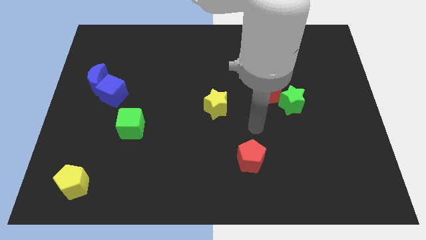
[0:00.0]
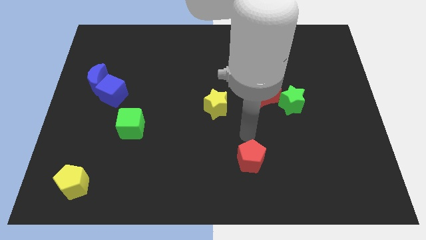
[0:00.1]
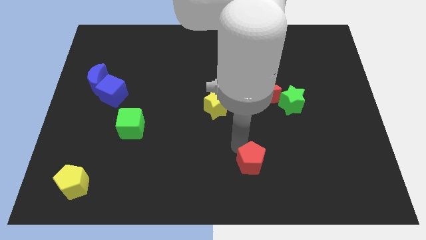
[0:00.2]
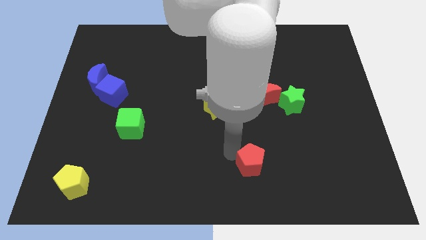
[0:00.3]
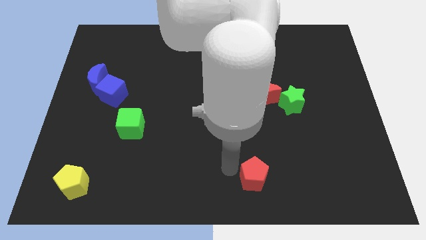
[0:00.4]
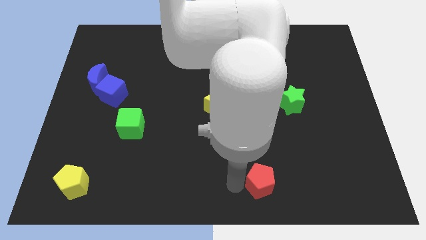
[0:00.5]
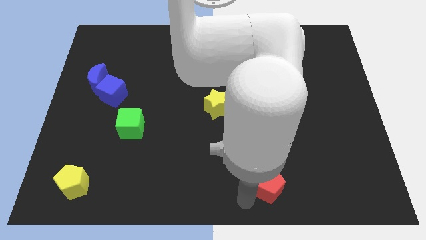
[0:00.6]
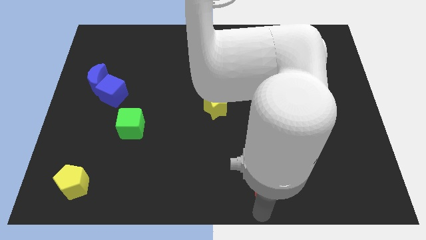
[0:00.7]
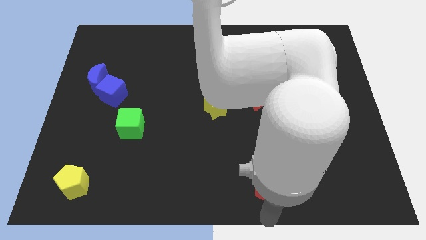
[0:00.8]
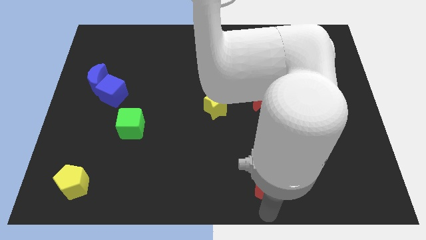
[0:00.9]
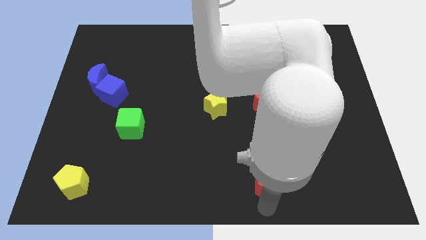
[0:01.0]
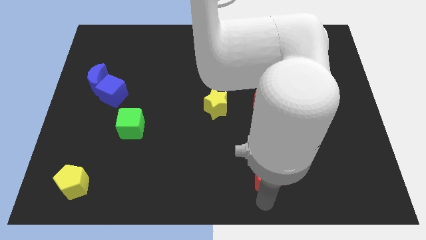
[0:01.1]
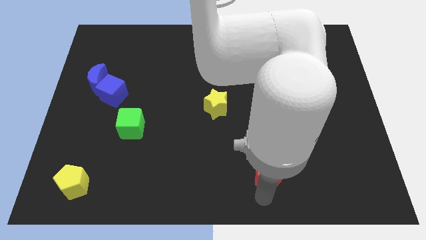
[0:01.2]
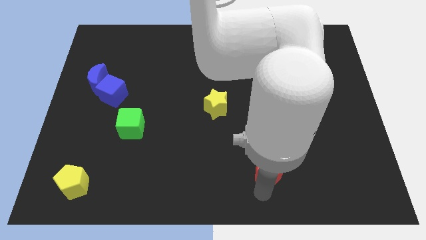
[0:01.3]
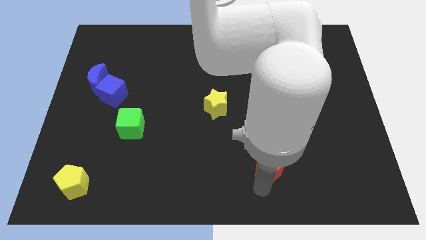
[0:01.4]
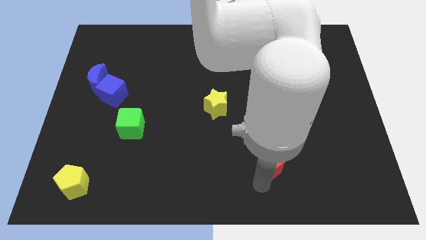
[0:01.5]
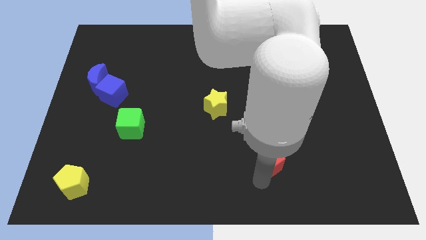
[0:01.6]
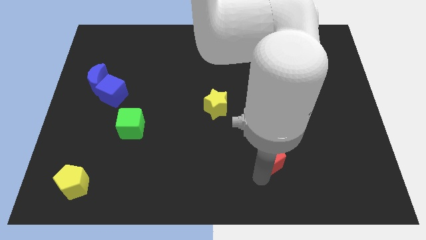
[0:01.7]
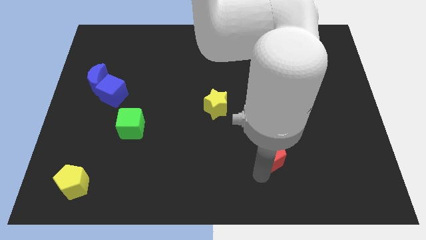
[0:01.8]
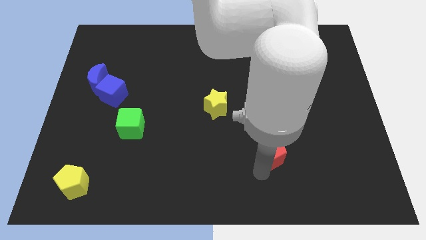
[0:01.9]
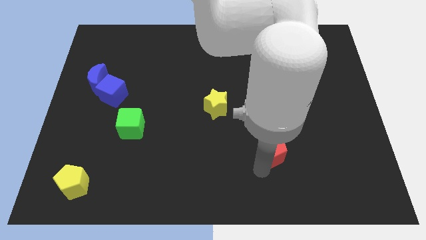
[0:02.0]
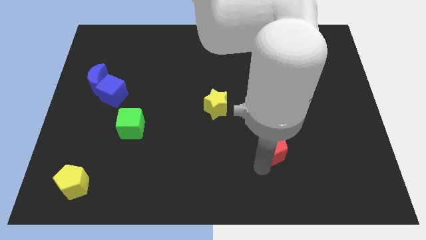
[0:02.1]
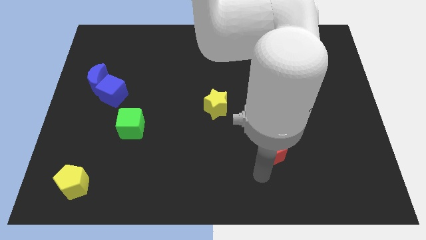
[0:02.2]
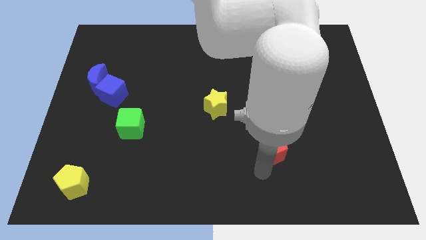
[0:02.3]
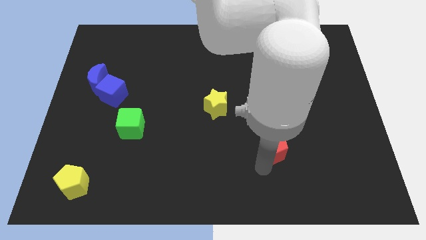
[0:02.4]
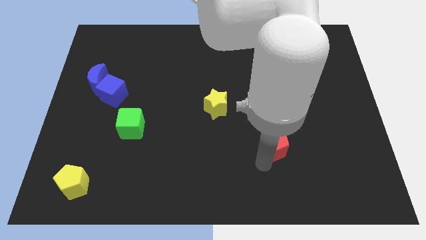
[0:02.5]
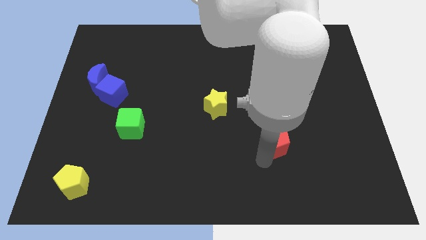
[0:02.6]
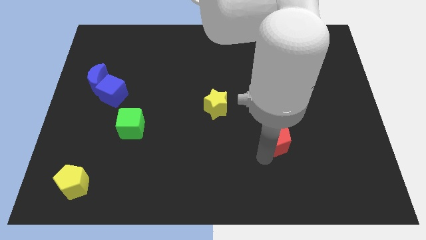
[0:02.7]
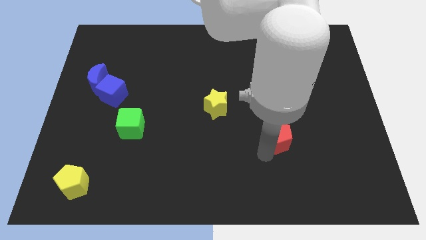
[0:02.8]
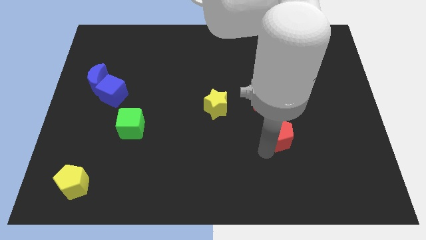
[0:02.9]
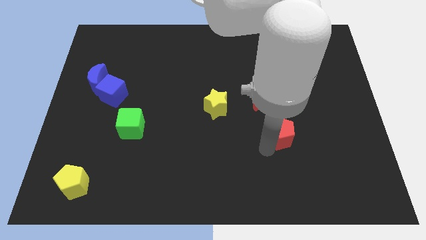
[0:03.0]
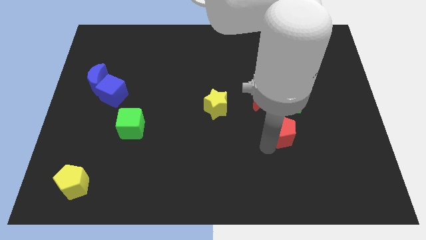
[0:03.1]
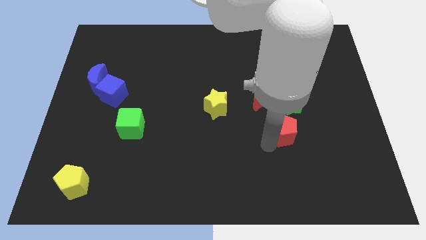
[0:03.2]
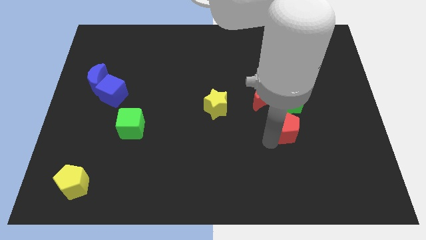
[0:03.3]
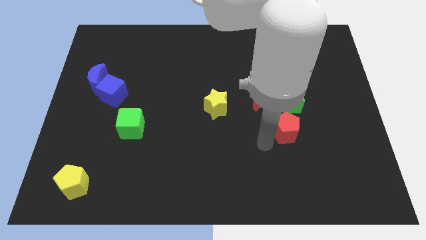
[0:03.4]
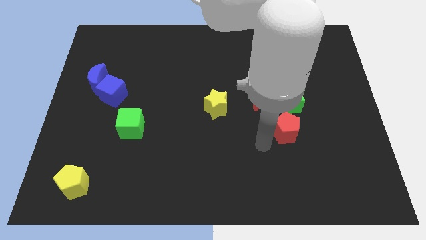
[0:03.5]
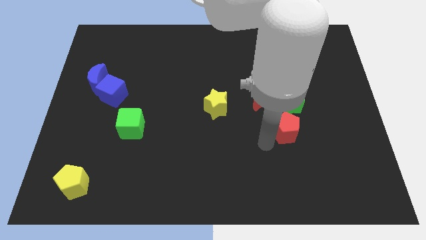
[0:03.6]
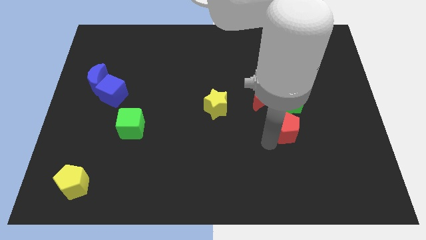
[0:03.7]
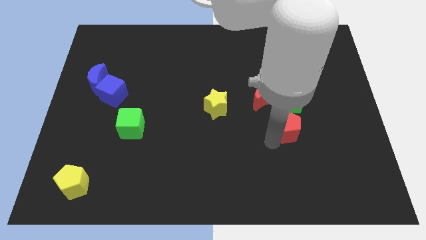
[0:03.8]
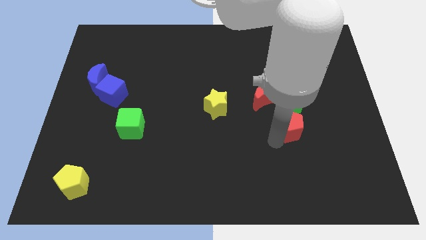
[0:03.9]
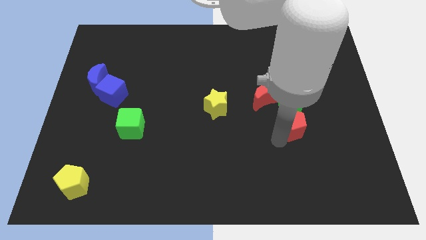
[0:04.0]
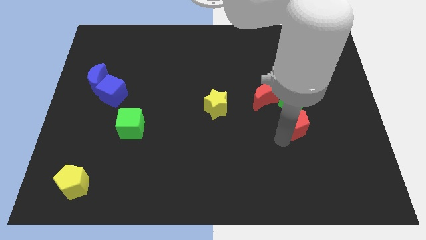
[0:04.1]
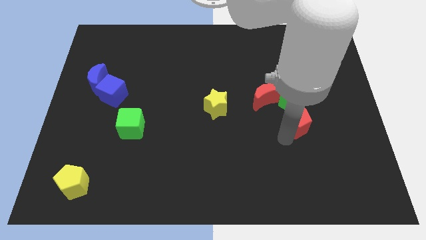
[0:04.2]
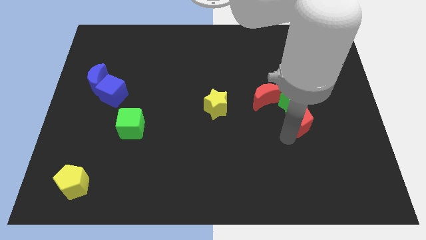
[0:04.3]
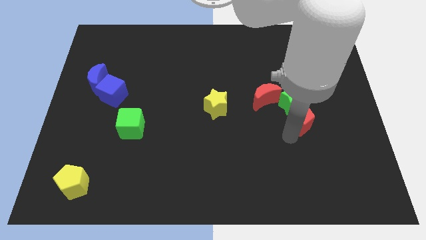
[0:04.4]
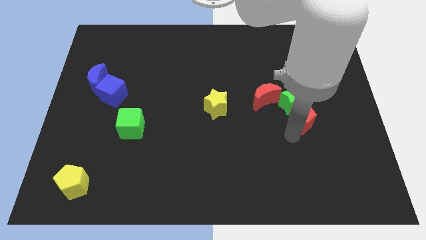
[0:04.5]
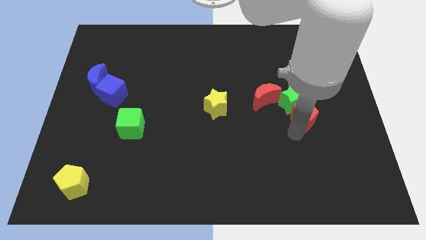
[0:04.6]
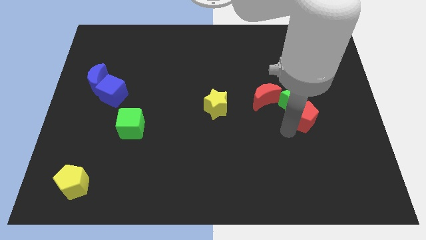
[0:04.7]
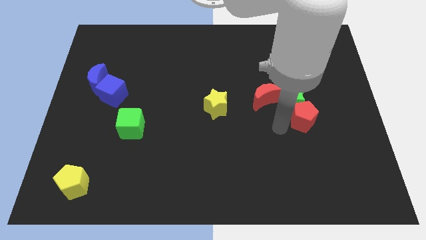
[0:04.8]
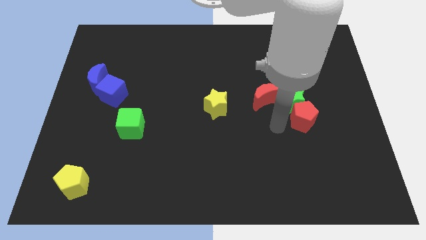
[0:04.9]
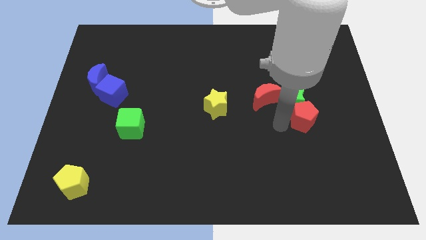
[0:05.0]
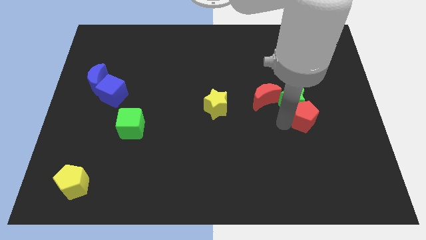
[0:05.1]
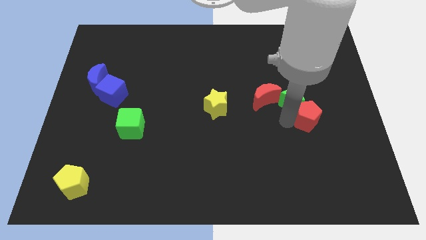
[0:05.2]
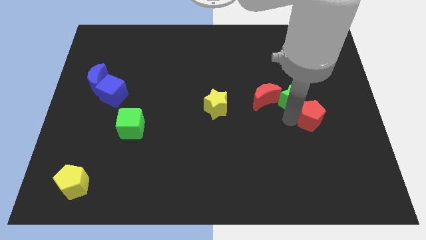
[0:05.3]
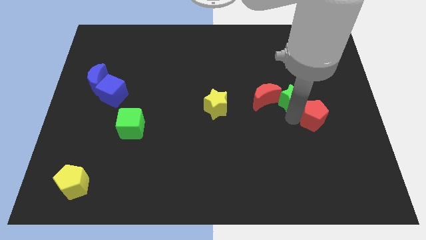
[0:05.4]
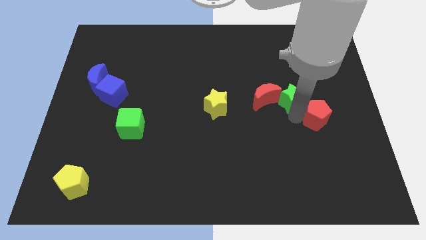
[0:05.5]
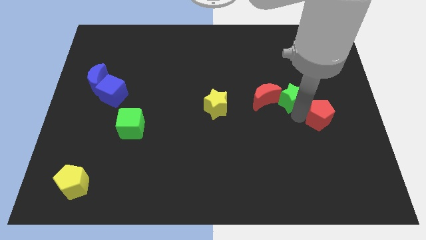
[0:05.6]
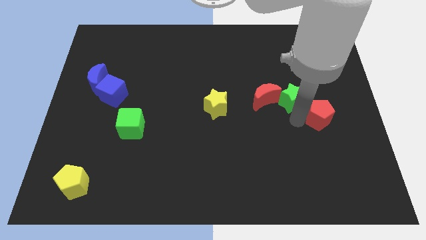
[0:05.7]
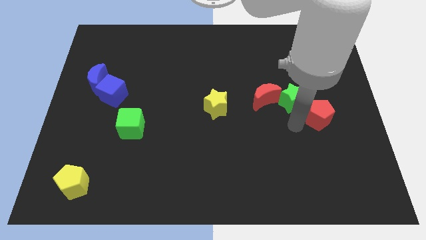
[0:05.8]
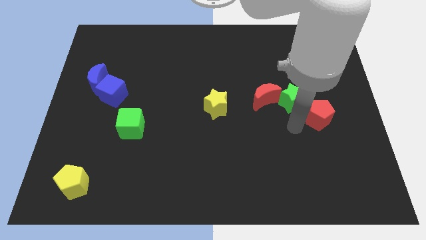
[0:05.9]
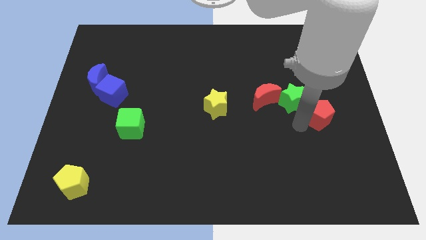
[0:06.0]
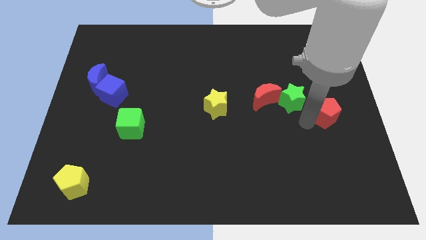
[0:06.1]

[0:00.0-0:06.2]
slide the red pentagon to the right side of the board
